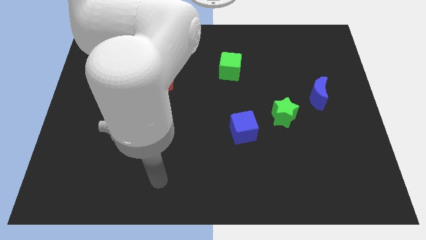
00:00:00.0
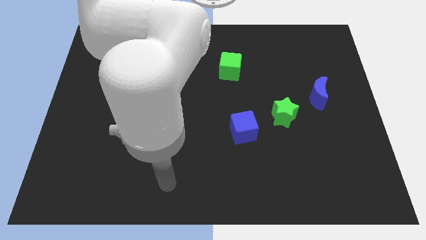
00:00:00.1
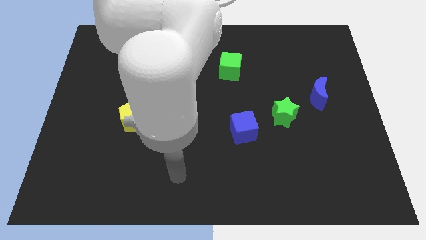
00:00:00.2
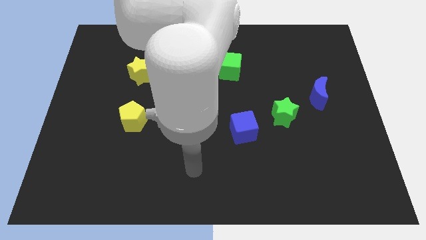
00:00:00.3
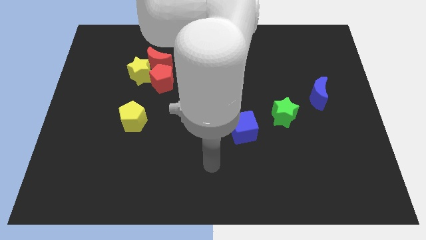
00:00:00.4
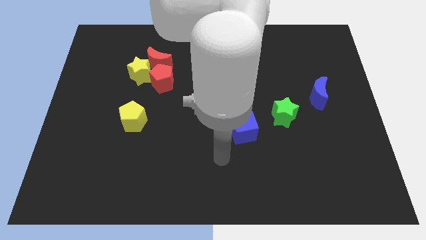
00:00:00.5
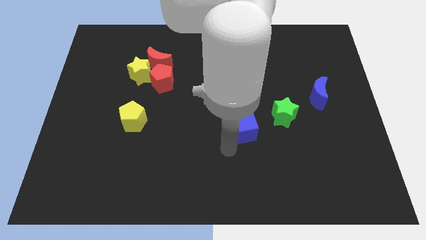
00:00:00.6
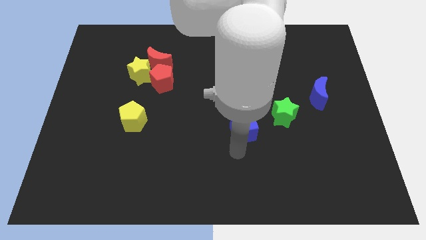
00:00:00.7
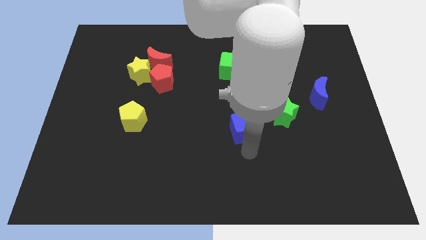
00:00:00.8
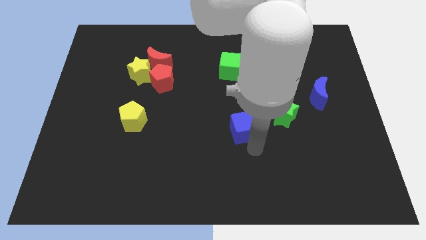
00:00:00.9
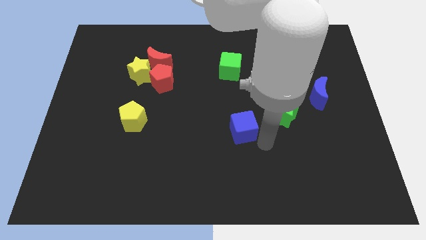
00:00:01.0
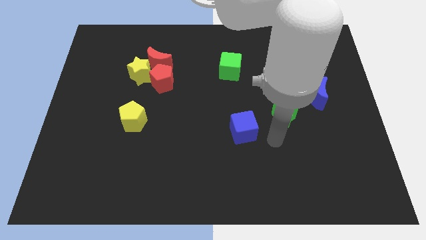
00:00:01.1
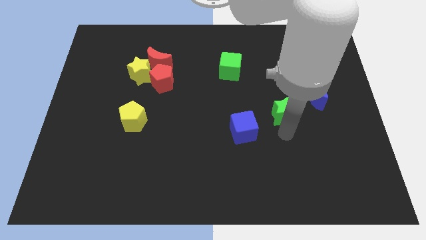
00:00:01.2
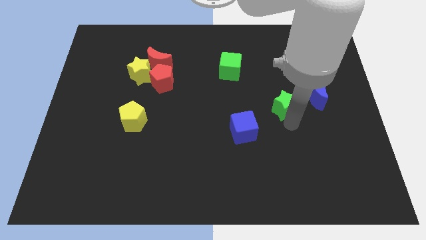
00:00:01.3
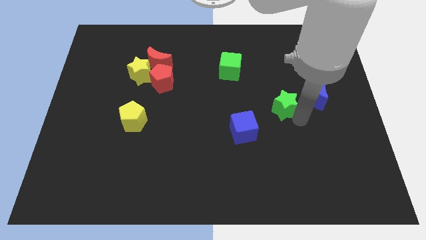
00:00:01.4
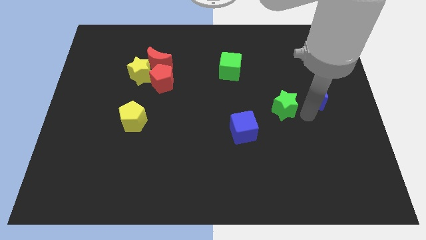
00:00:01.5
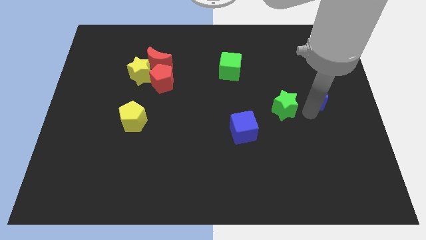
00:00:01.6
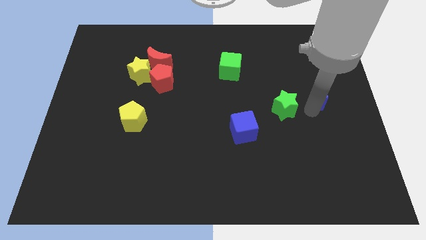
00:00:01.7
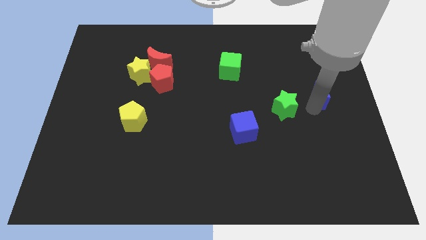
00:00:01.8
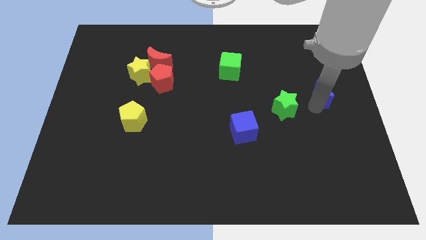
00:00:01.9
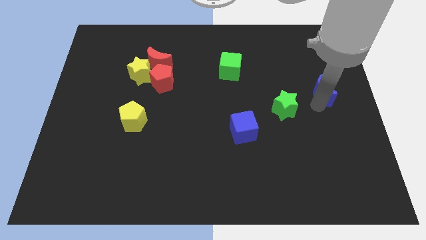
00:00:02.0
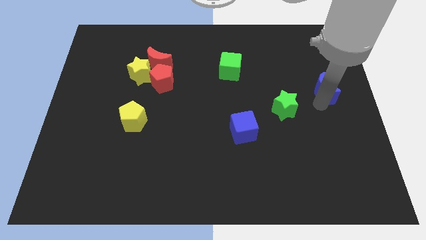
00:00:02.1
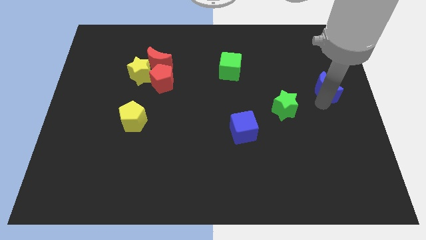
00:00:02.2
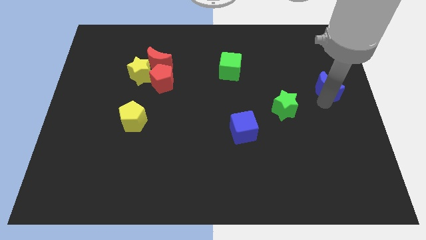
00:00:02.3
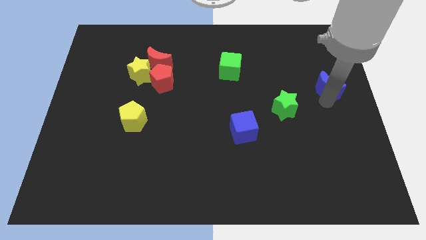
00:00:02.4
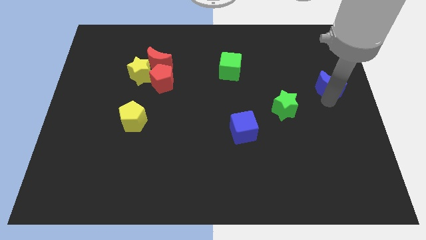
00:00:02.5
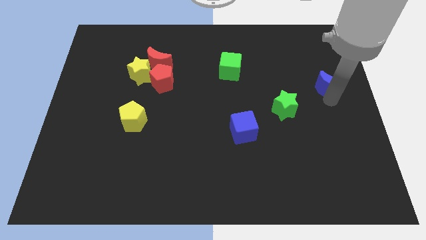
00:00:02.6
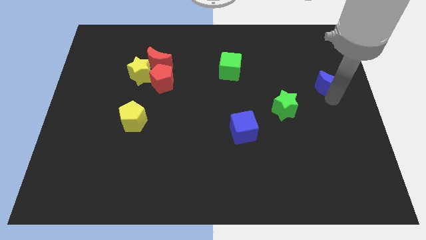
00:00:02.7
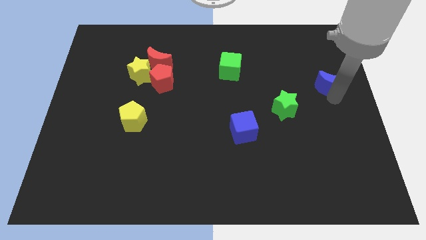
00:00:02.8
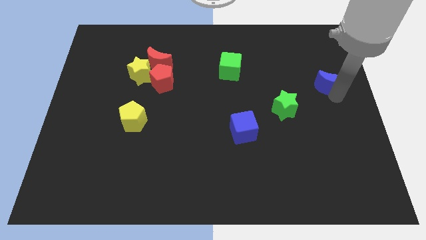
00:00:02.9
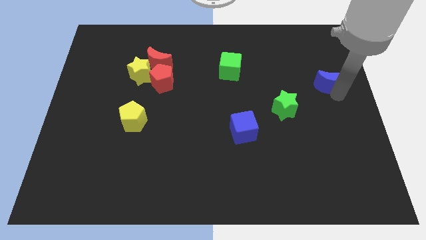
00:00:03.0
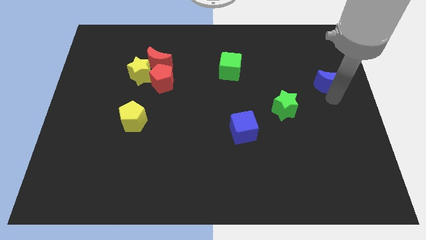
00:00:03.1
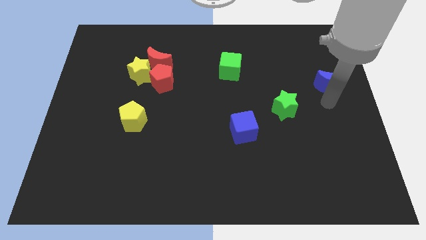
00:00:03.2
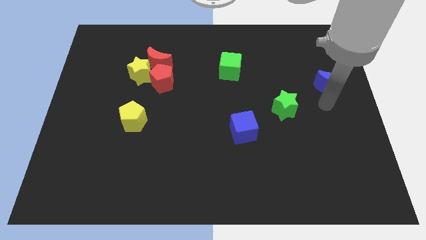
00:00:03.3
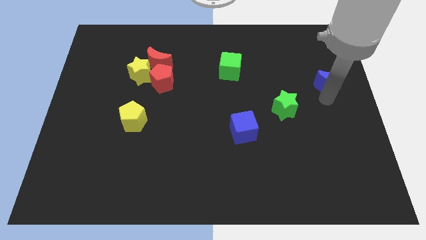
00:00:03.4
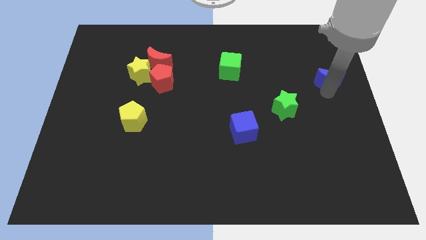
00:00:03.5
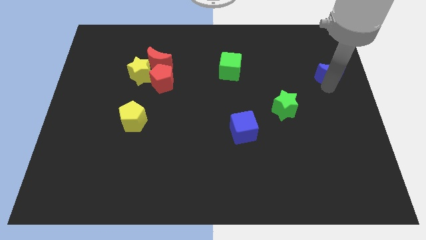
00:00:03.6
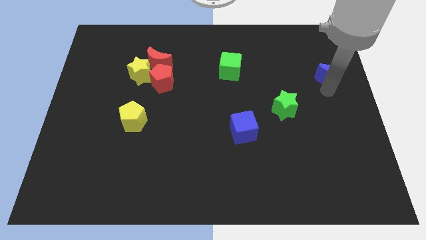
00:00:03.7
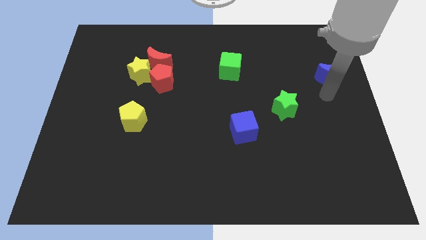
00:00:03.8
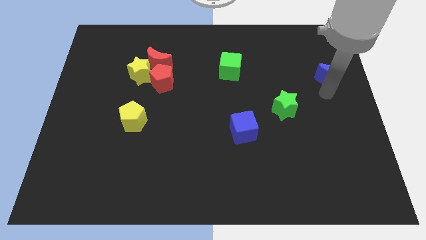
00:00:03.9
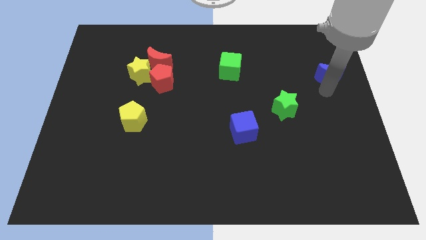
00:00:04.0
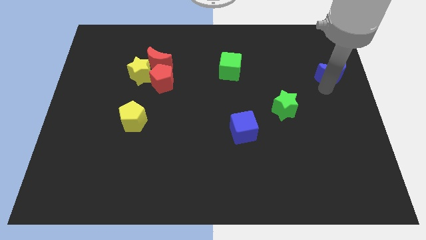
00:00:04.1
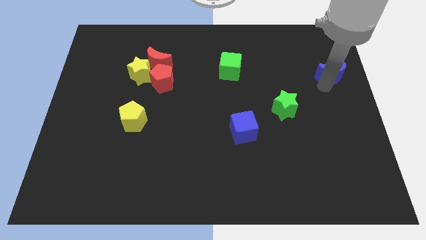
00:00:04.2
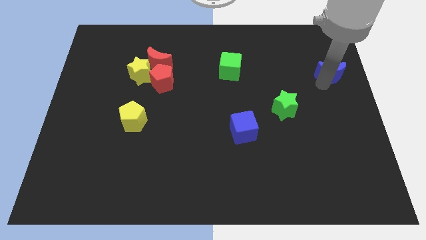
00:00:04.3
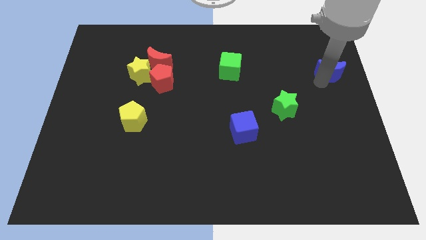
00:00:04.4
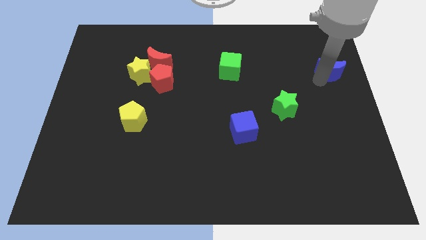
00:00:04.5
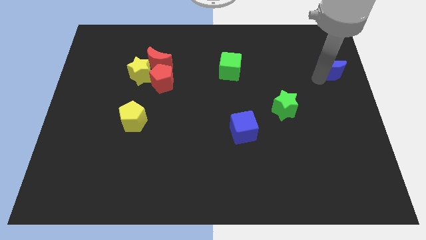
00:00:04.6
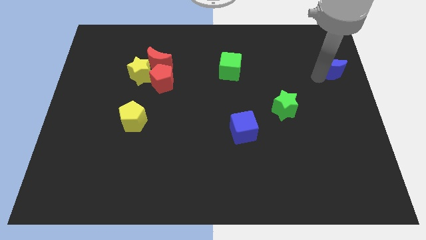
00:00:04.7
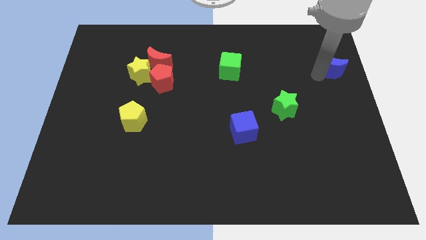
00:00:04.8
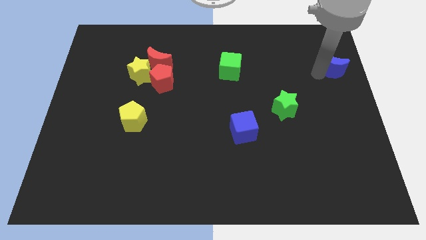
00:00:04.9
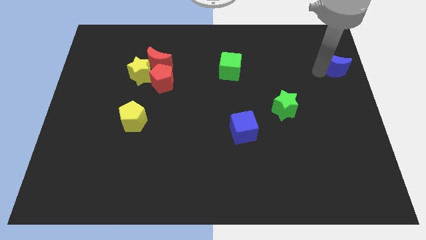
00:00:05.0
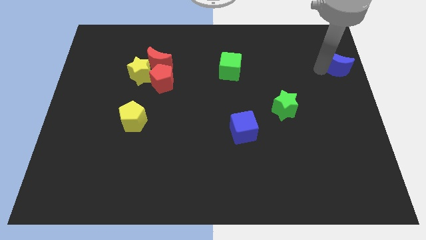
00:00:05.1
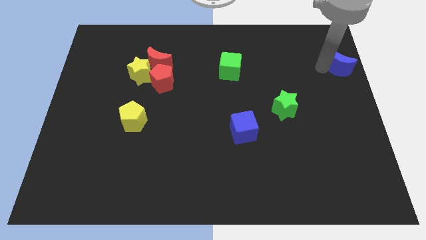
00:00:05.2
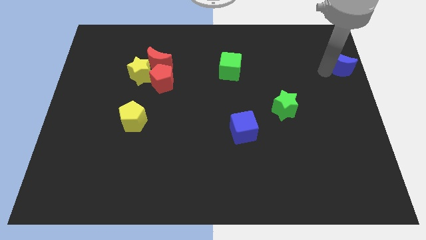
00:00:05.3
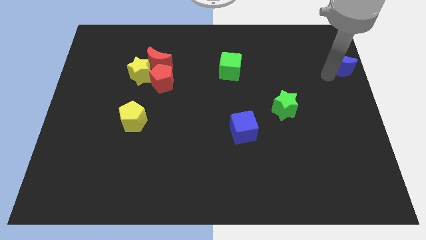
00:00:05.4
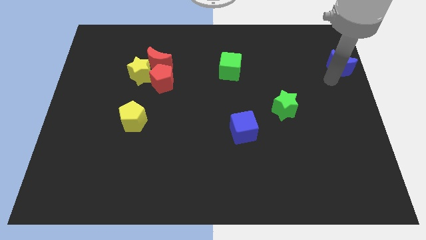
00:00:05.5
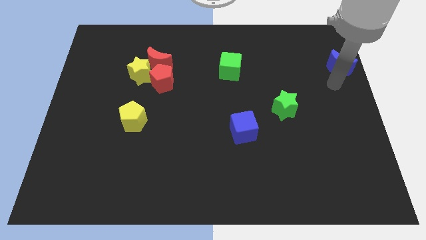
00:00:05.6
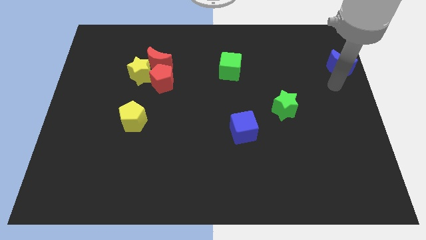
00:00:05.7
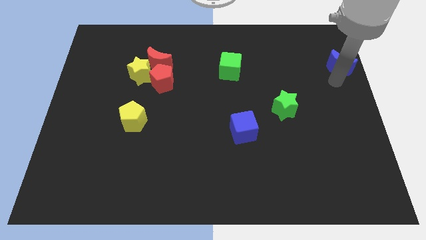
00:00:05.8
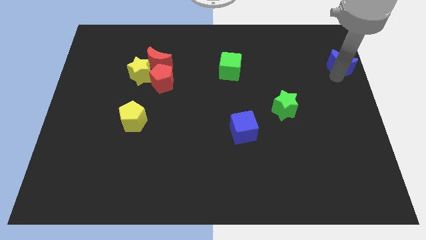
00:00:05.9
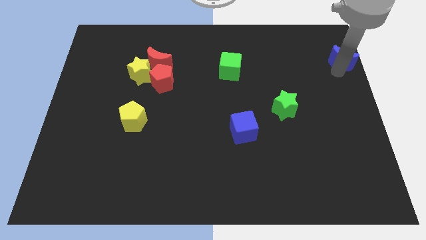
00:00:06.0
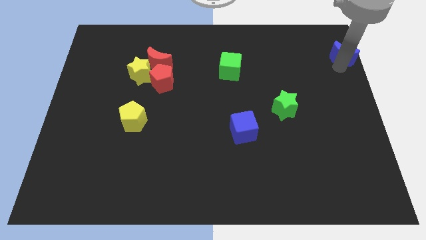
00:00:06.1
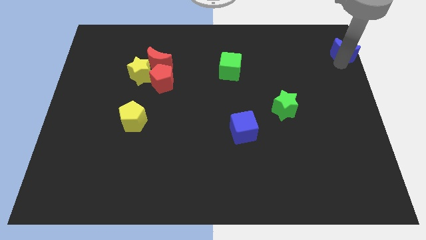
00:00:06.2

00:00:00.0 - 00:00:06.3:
put the blue moon to the top right of the board

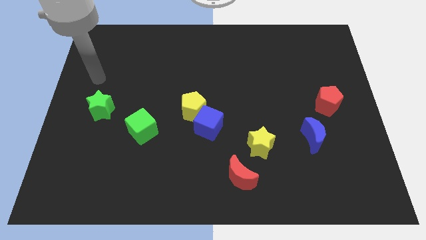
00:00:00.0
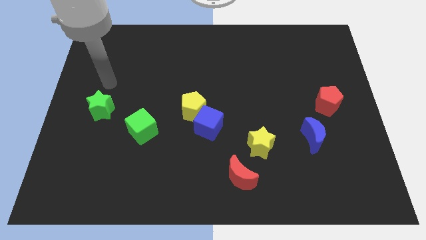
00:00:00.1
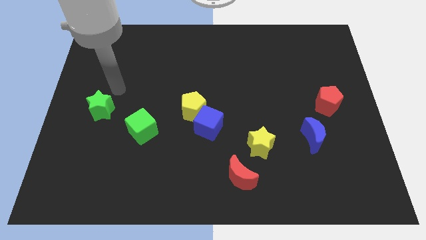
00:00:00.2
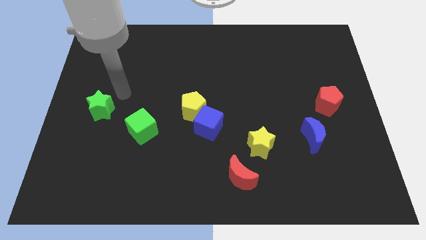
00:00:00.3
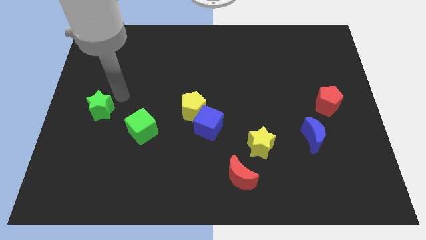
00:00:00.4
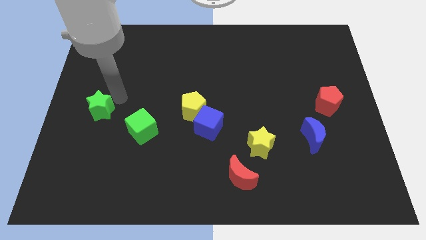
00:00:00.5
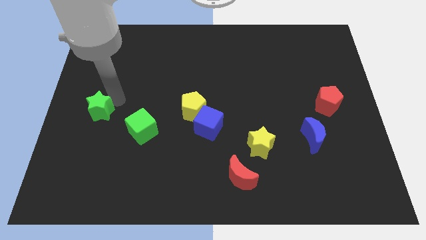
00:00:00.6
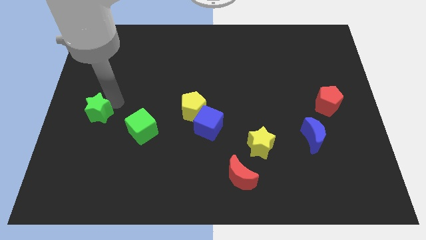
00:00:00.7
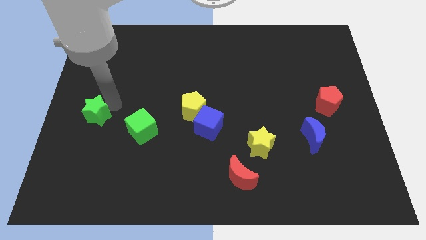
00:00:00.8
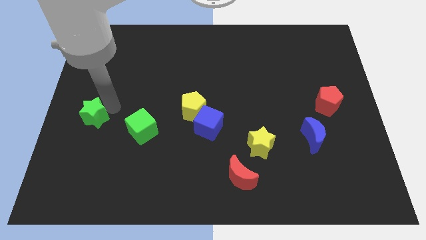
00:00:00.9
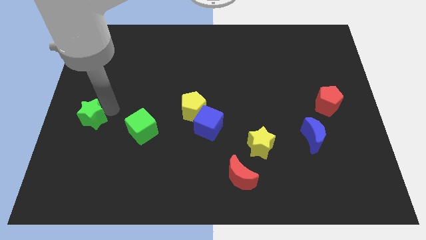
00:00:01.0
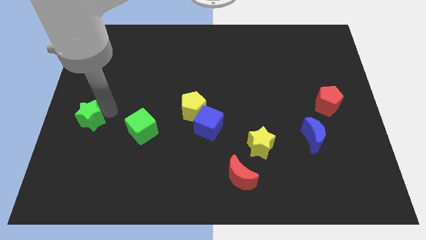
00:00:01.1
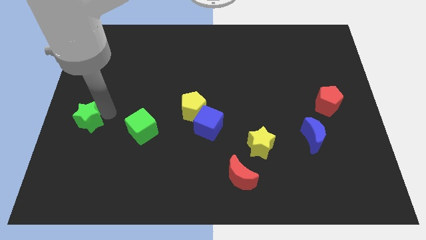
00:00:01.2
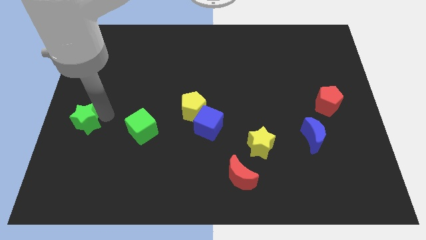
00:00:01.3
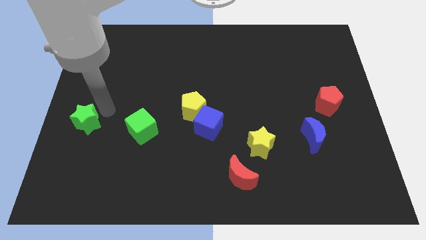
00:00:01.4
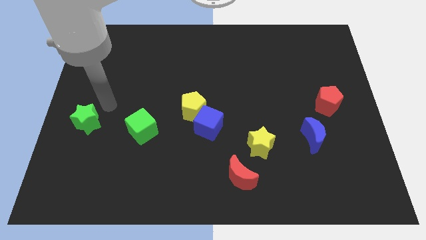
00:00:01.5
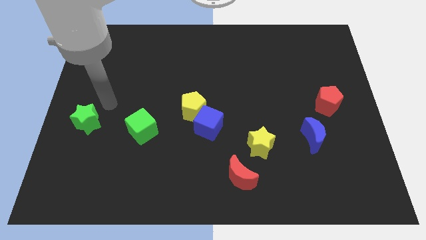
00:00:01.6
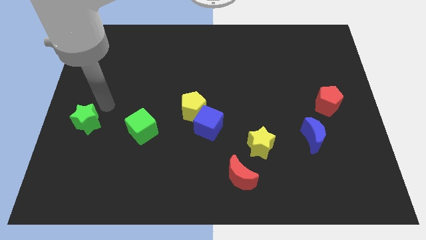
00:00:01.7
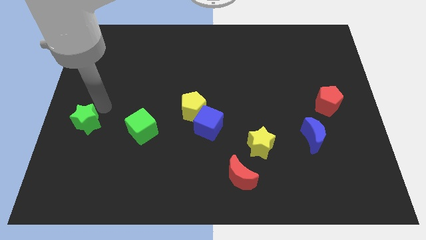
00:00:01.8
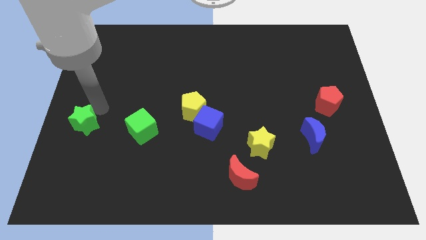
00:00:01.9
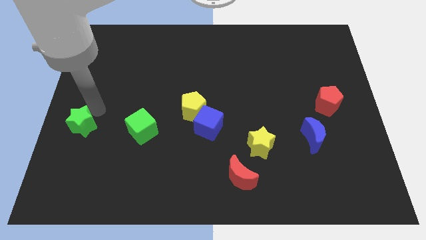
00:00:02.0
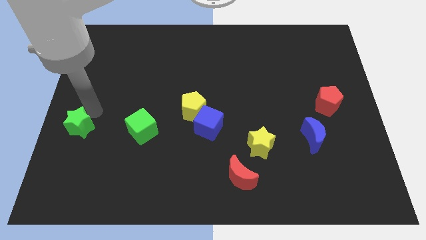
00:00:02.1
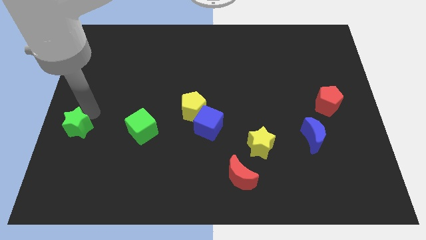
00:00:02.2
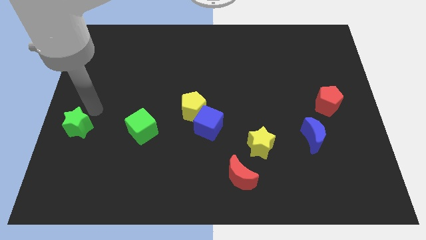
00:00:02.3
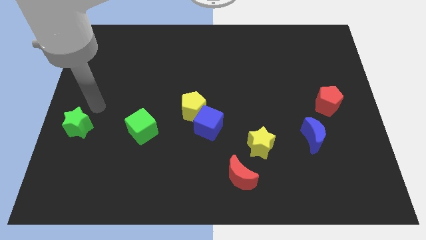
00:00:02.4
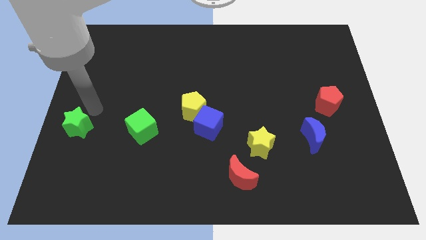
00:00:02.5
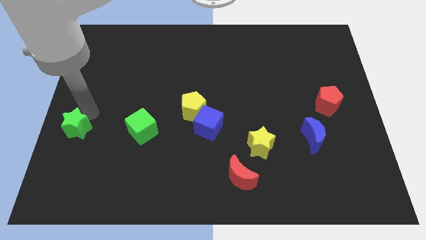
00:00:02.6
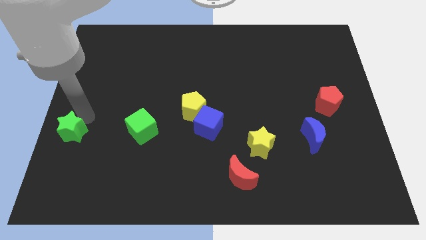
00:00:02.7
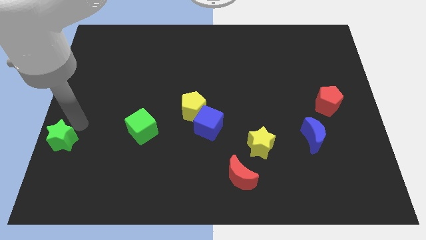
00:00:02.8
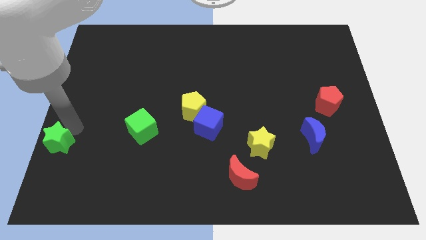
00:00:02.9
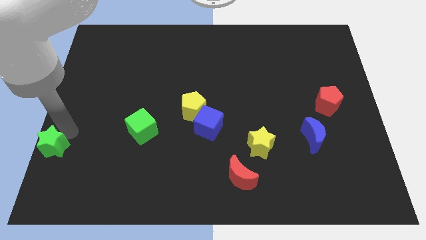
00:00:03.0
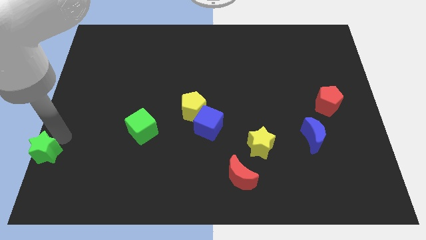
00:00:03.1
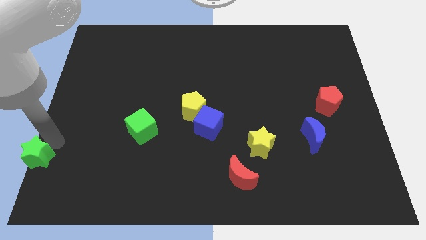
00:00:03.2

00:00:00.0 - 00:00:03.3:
put the green star to the bottom left corner
